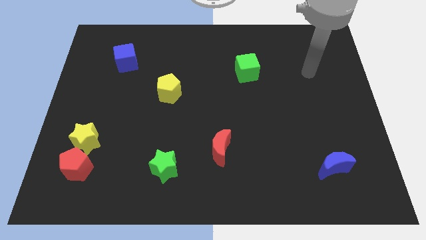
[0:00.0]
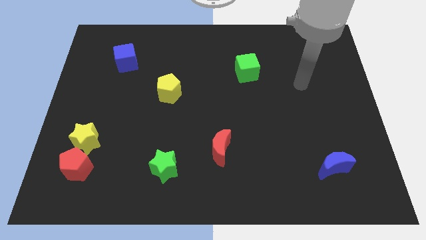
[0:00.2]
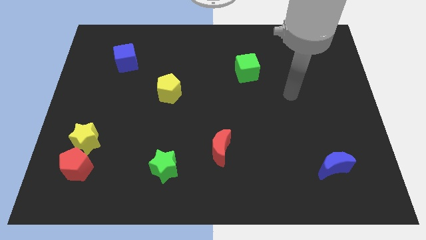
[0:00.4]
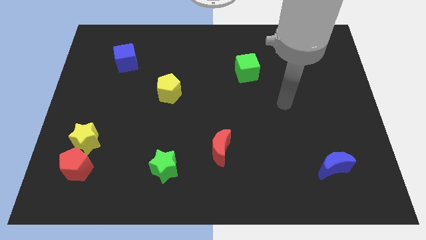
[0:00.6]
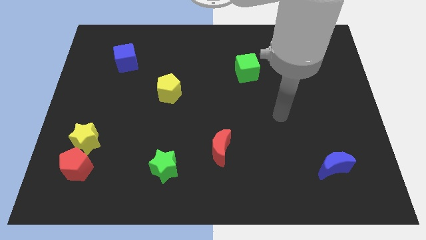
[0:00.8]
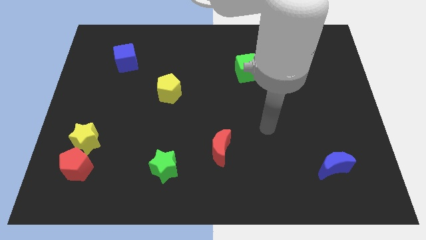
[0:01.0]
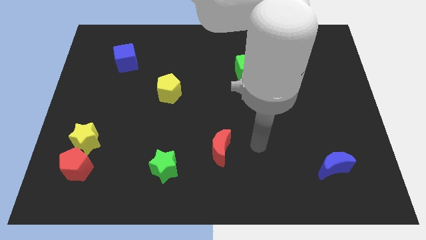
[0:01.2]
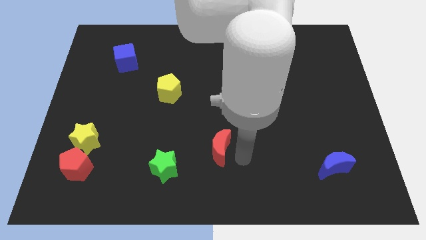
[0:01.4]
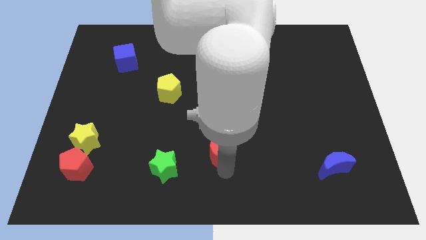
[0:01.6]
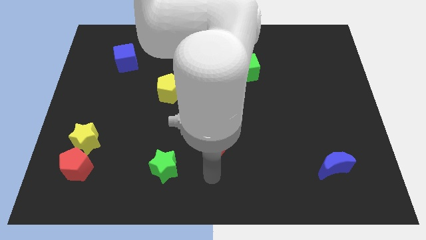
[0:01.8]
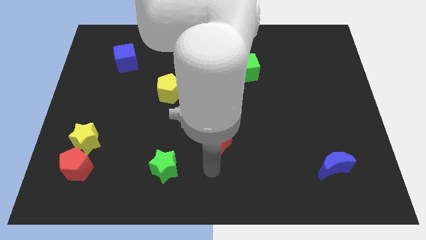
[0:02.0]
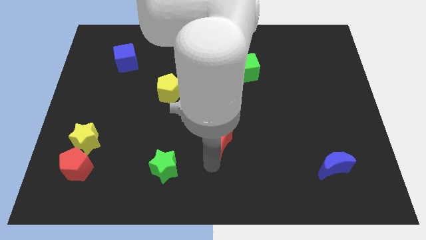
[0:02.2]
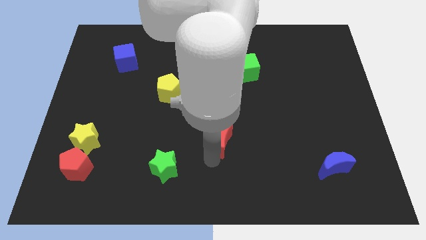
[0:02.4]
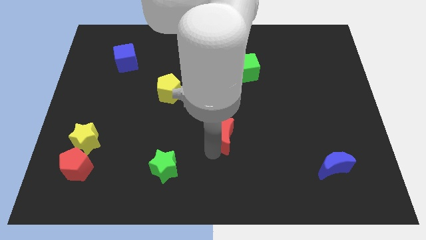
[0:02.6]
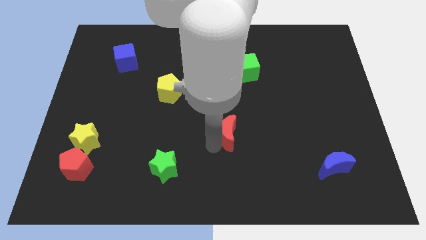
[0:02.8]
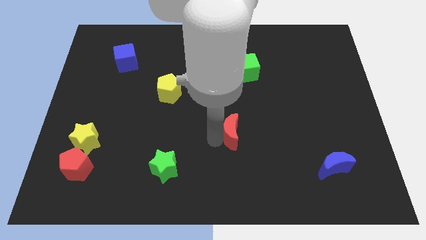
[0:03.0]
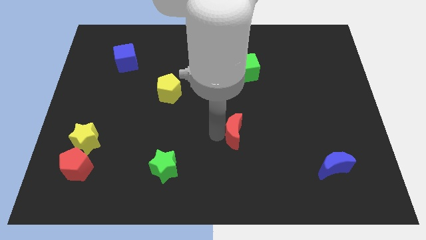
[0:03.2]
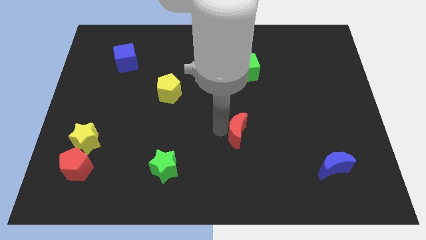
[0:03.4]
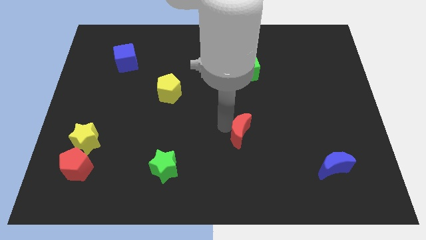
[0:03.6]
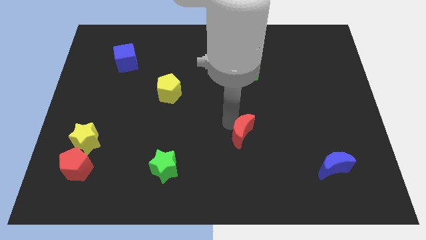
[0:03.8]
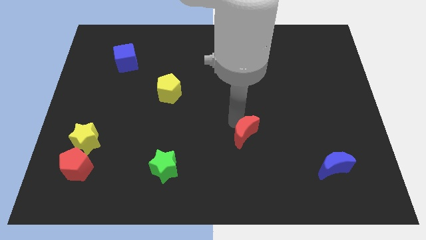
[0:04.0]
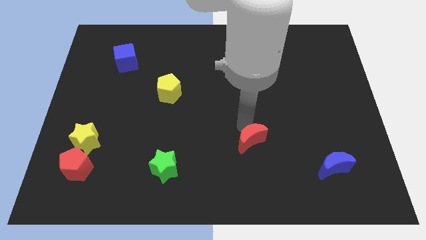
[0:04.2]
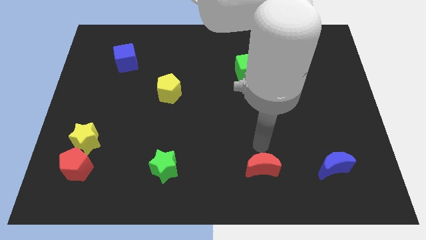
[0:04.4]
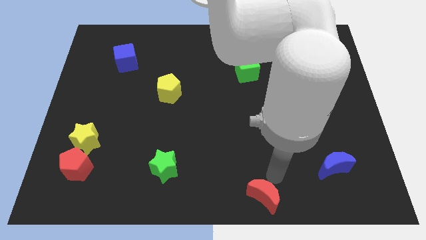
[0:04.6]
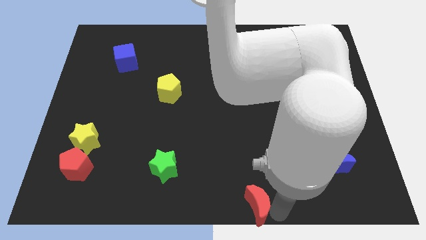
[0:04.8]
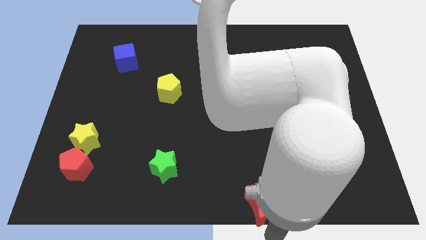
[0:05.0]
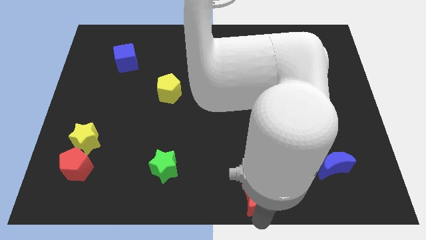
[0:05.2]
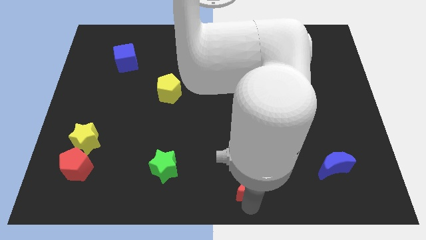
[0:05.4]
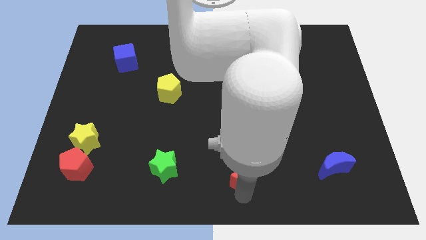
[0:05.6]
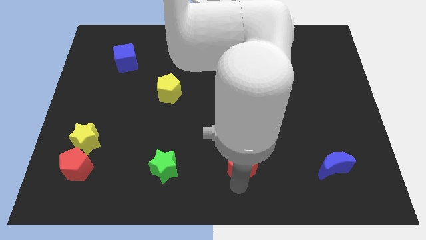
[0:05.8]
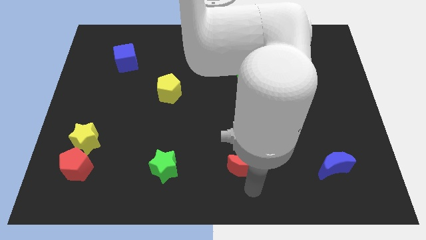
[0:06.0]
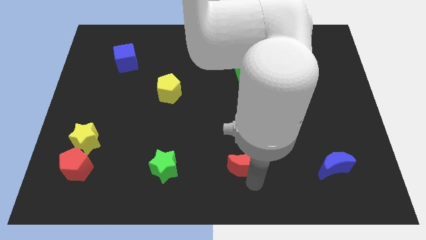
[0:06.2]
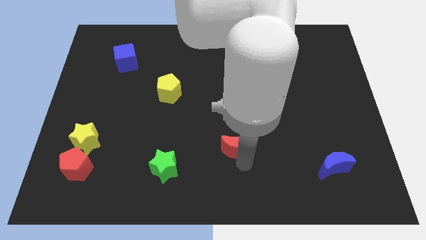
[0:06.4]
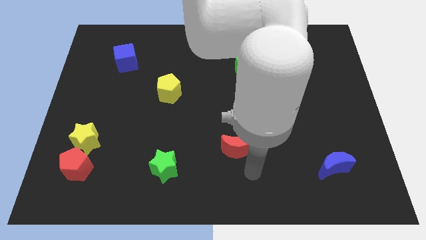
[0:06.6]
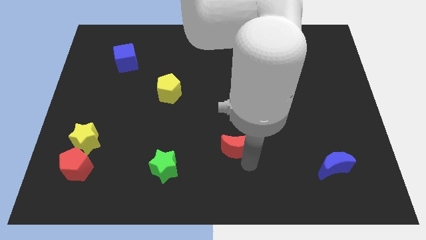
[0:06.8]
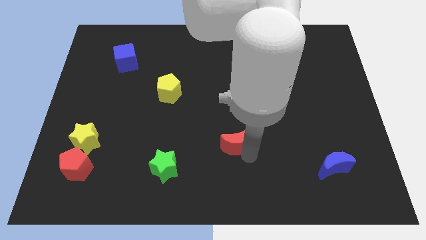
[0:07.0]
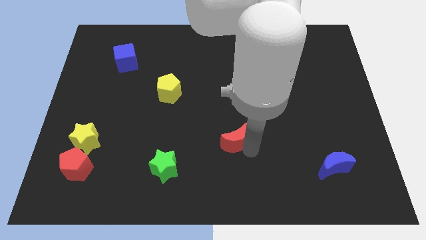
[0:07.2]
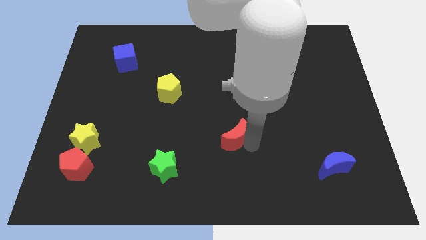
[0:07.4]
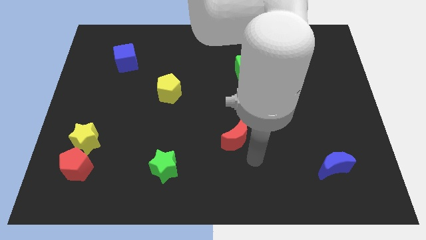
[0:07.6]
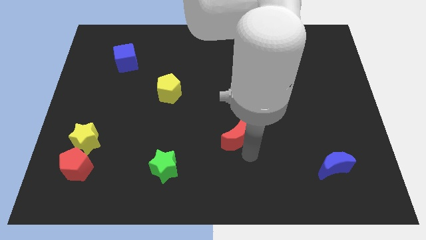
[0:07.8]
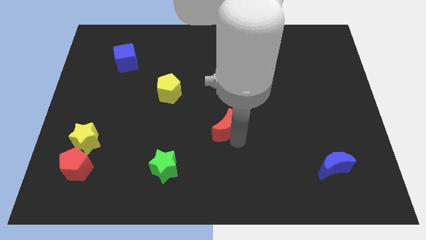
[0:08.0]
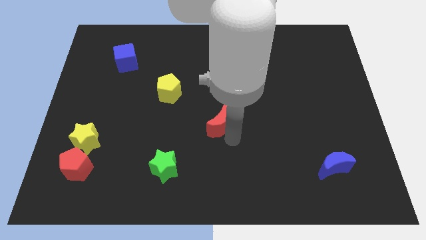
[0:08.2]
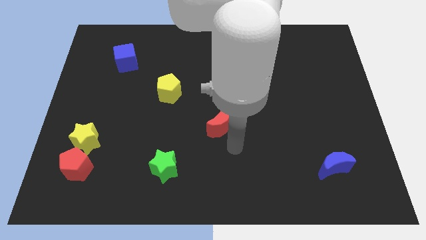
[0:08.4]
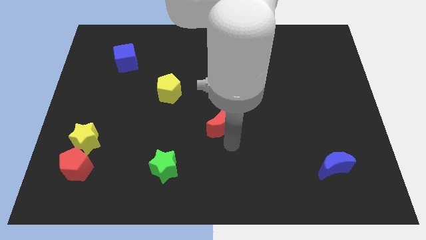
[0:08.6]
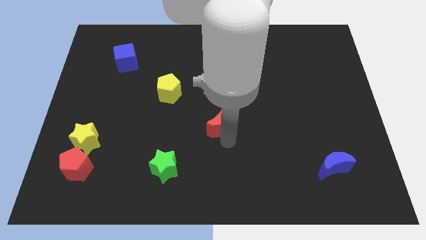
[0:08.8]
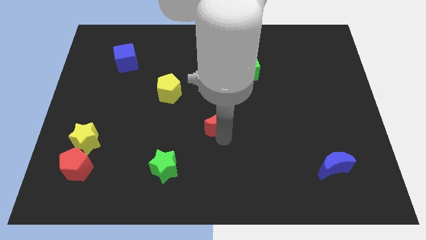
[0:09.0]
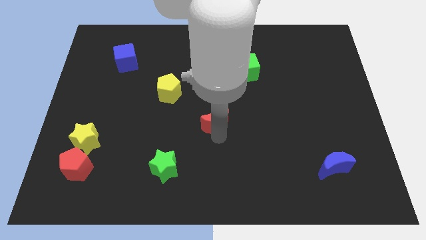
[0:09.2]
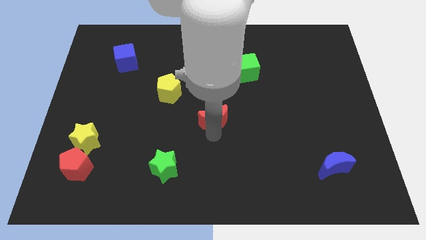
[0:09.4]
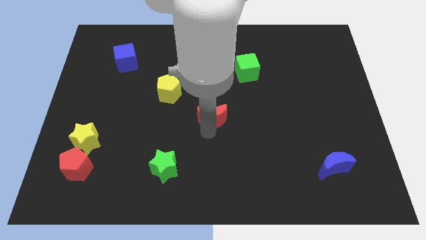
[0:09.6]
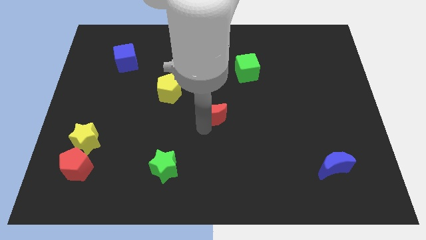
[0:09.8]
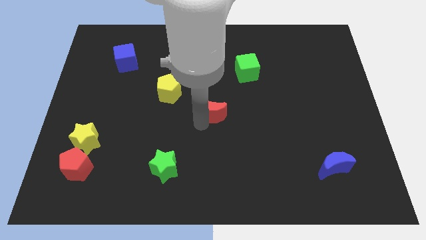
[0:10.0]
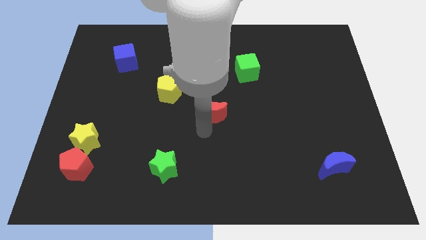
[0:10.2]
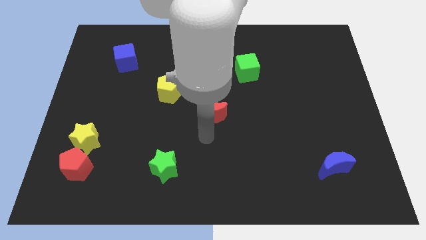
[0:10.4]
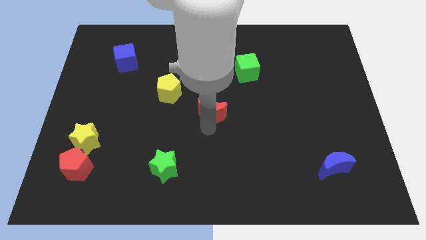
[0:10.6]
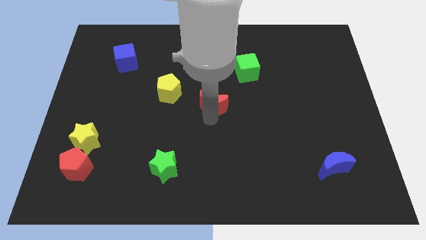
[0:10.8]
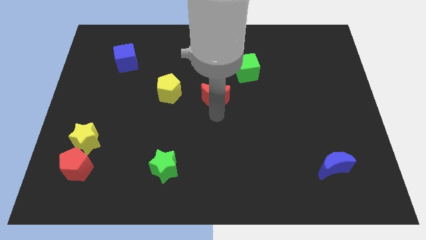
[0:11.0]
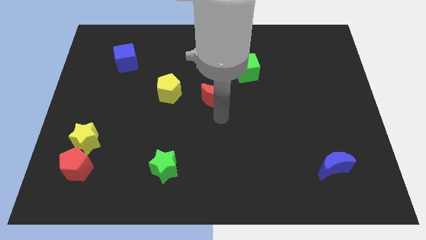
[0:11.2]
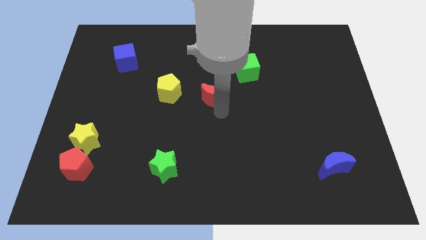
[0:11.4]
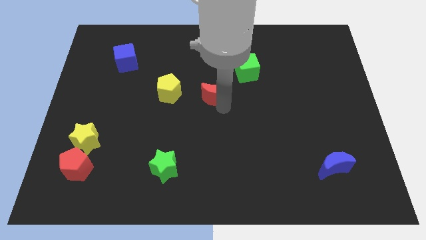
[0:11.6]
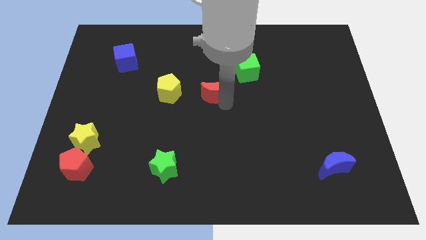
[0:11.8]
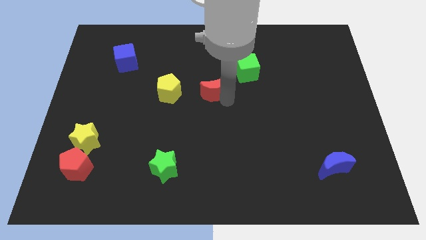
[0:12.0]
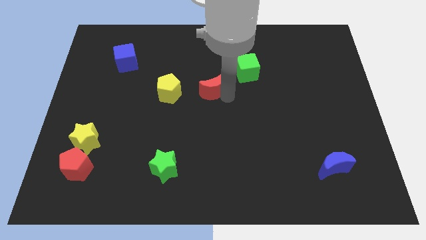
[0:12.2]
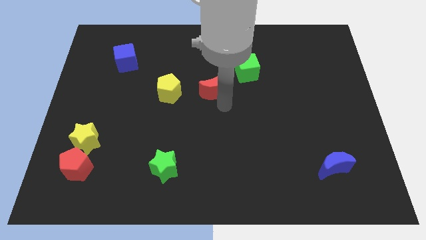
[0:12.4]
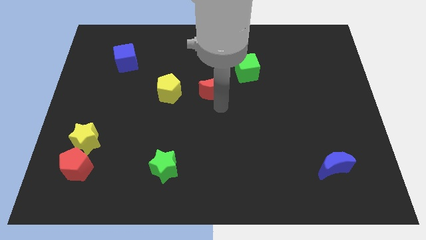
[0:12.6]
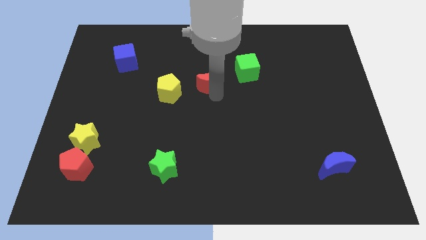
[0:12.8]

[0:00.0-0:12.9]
push the red moon to the left of the green cube

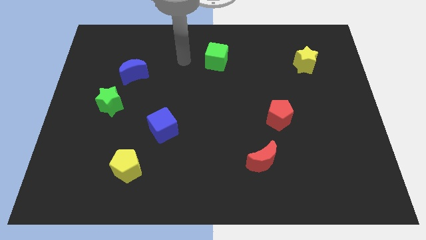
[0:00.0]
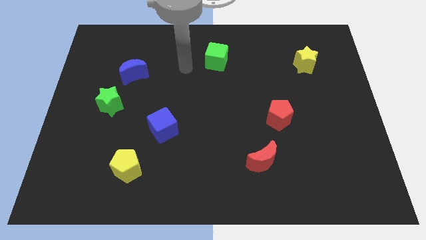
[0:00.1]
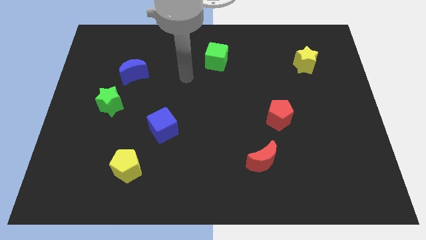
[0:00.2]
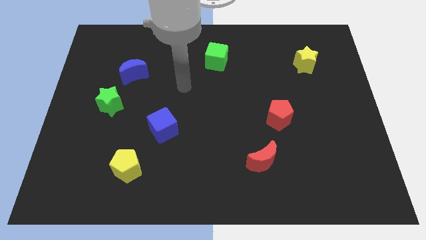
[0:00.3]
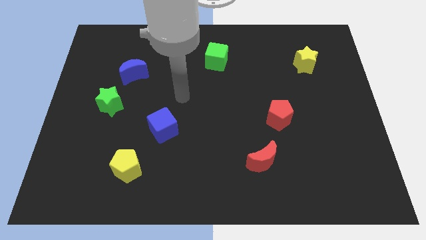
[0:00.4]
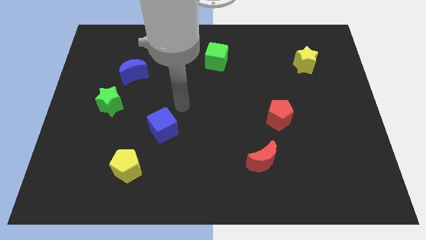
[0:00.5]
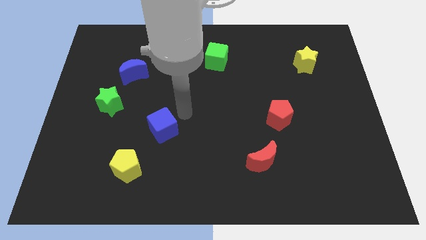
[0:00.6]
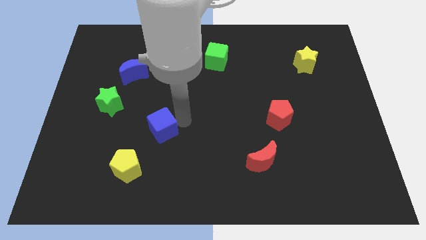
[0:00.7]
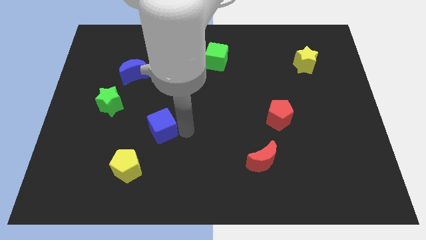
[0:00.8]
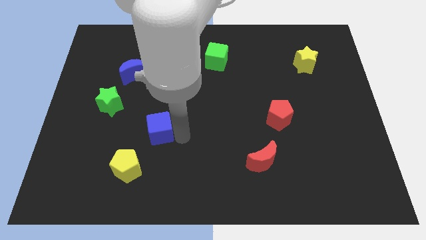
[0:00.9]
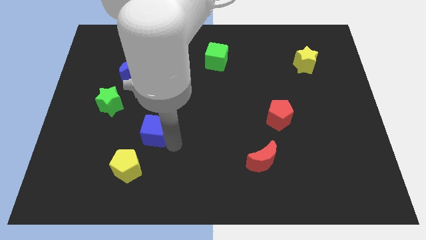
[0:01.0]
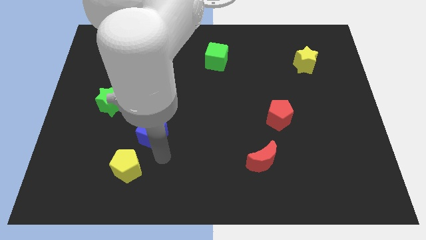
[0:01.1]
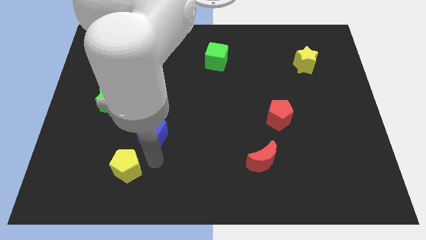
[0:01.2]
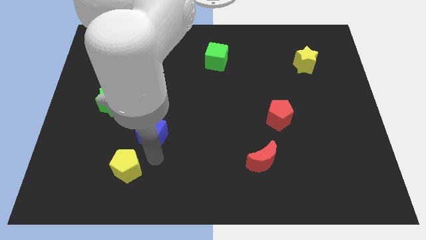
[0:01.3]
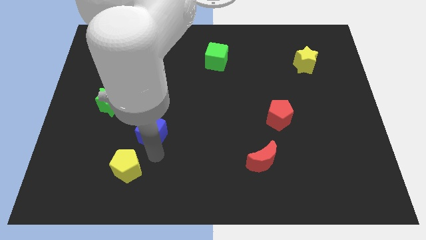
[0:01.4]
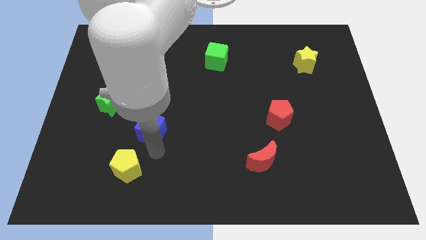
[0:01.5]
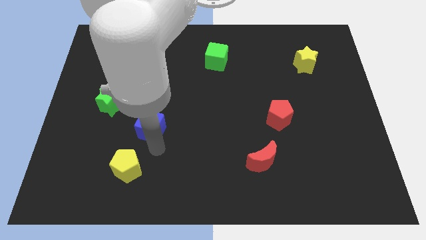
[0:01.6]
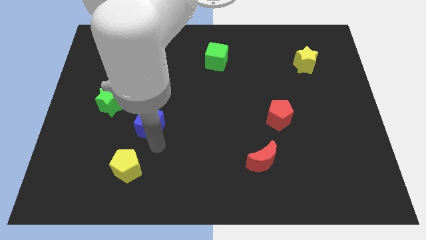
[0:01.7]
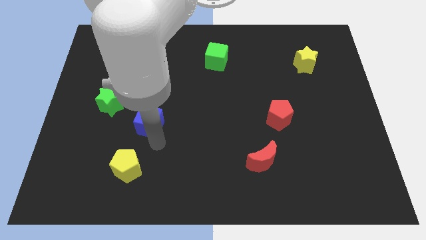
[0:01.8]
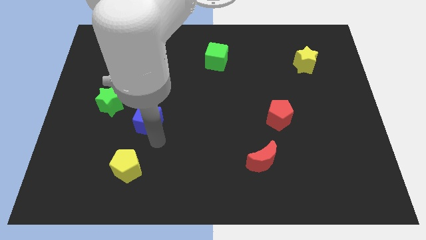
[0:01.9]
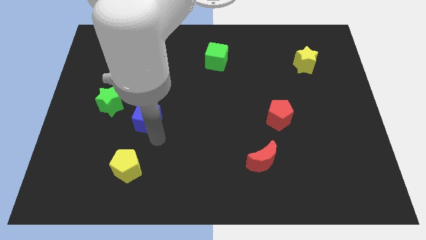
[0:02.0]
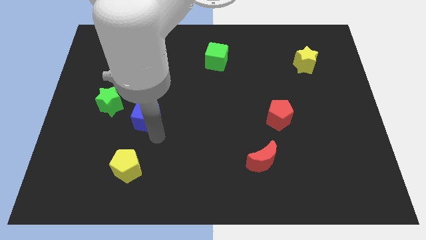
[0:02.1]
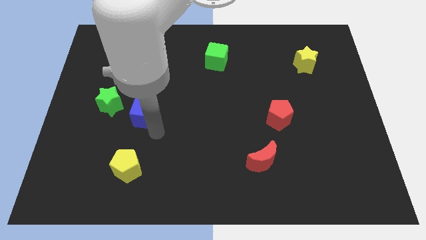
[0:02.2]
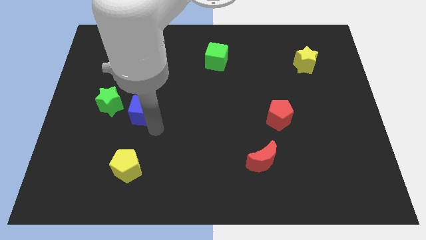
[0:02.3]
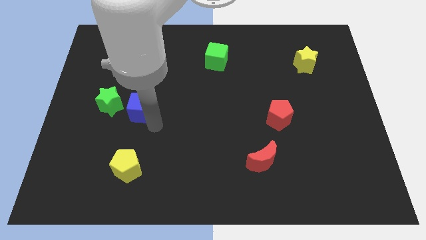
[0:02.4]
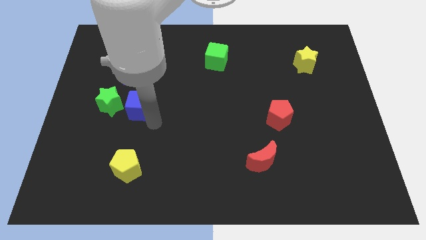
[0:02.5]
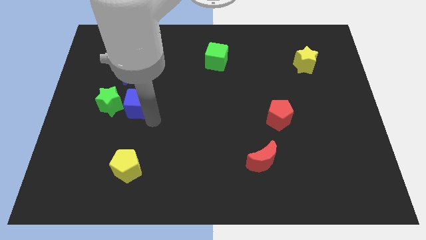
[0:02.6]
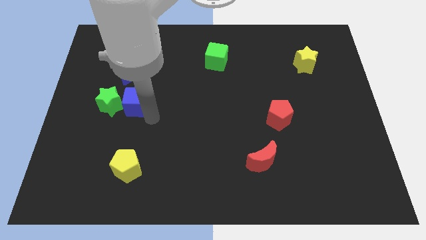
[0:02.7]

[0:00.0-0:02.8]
move the blue cube to the top right side of the green star
